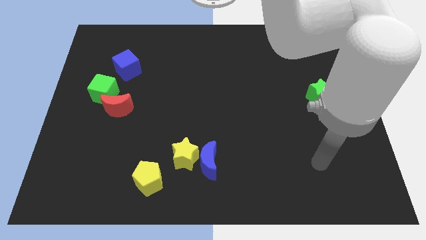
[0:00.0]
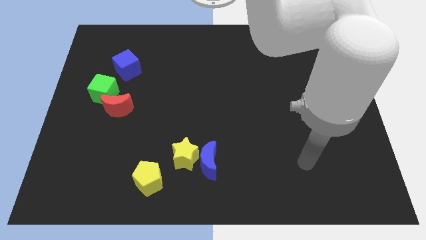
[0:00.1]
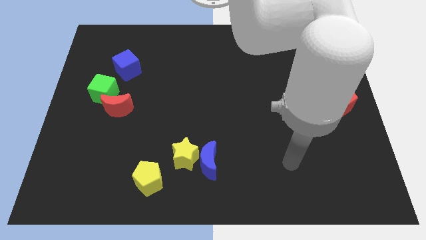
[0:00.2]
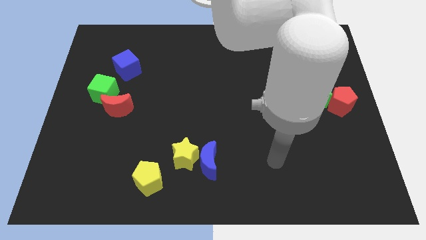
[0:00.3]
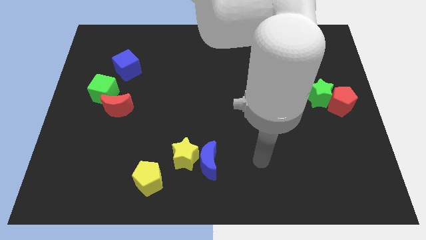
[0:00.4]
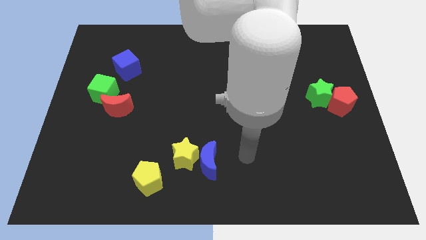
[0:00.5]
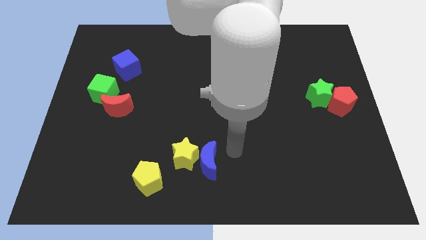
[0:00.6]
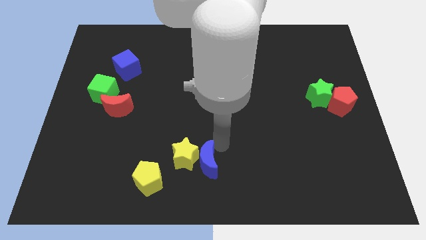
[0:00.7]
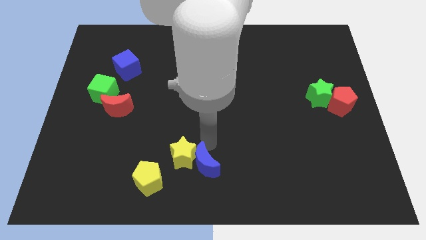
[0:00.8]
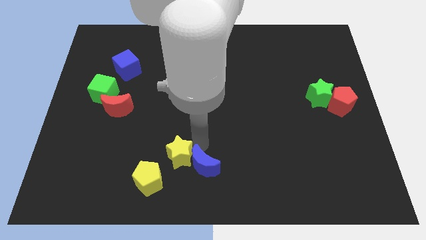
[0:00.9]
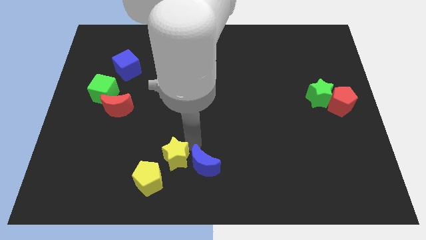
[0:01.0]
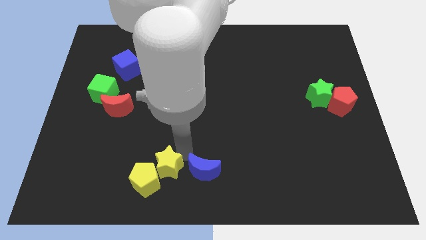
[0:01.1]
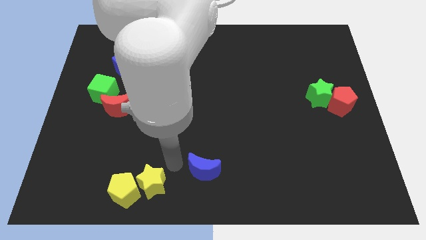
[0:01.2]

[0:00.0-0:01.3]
move the blue moon away from the yellow star

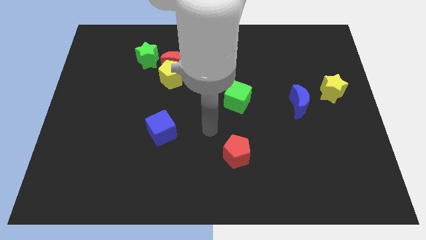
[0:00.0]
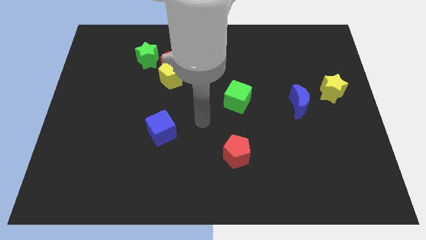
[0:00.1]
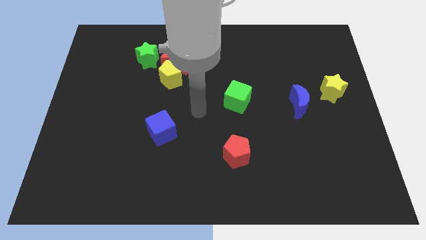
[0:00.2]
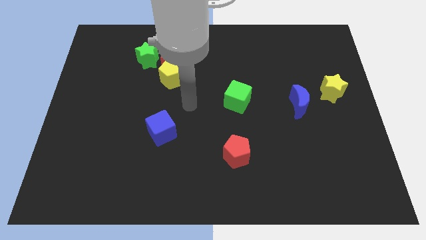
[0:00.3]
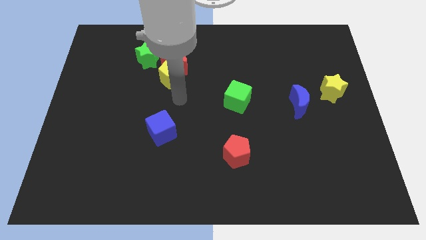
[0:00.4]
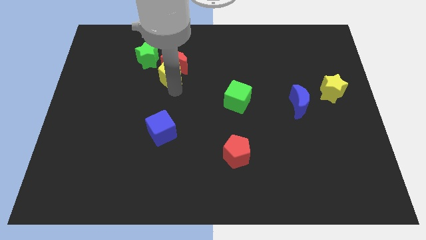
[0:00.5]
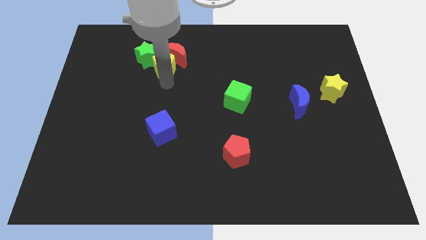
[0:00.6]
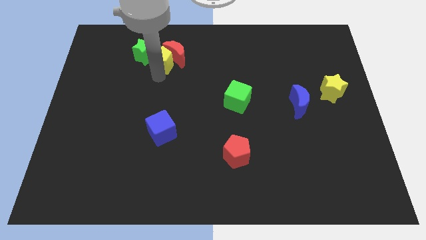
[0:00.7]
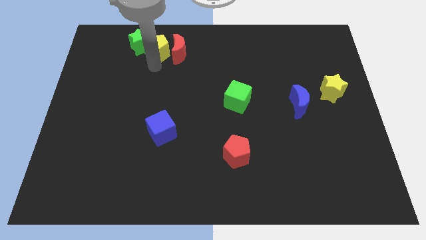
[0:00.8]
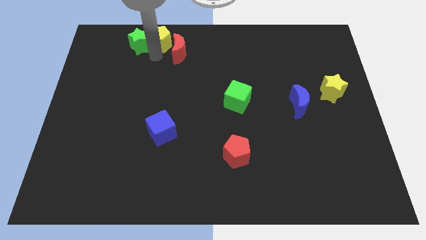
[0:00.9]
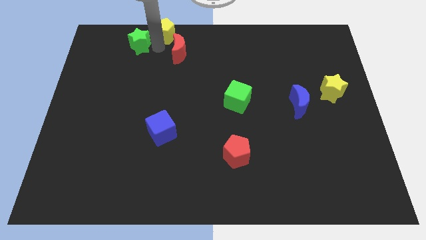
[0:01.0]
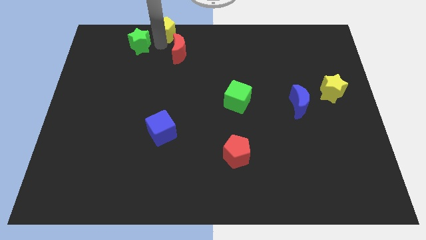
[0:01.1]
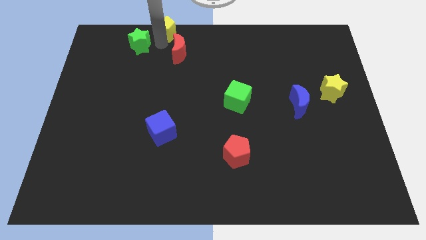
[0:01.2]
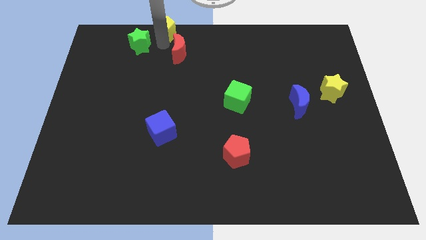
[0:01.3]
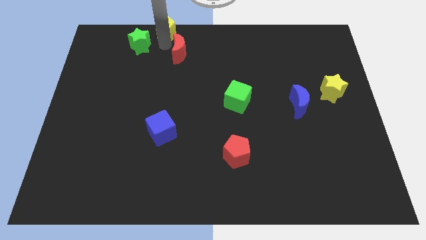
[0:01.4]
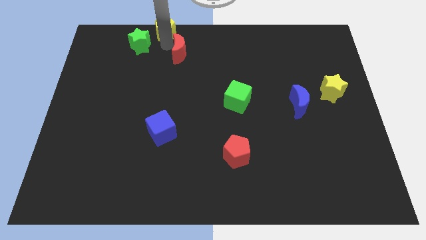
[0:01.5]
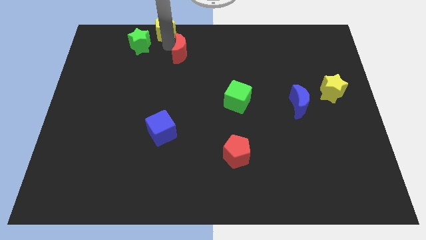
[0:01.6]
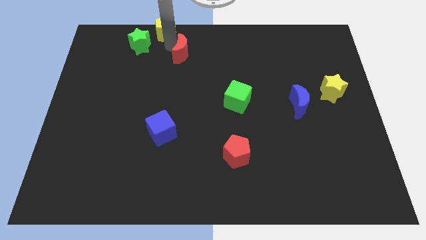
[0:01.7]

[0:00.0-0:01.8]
separate the red moon from the yellow pentagon and green star

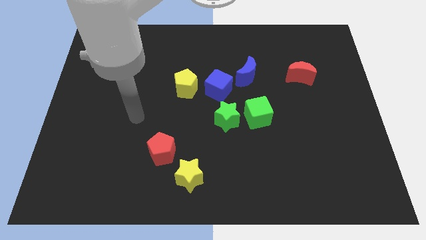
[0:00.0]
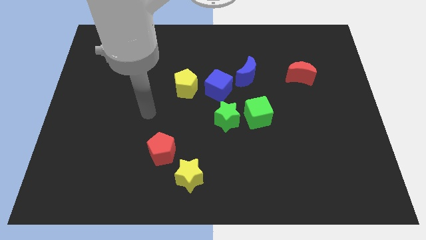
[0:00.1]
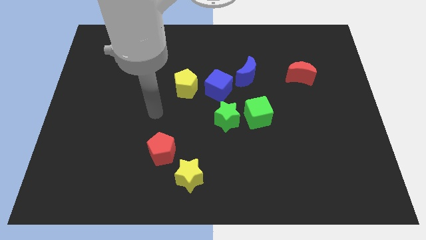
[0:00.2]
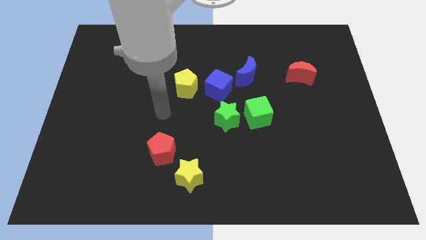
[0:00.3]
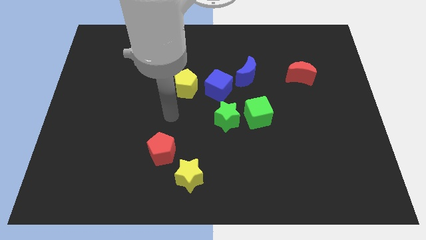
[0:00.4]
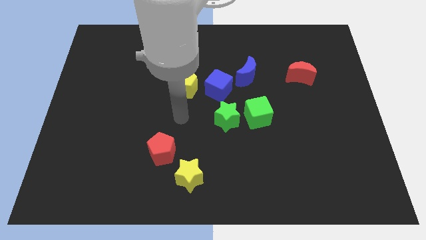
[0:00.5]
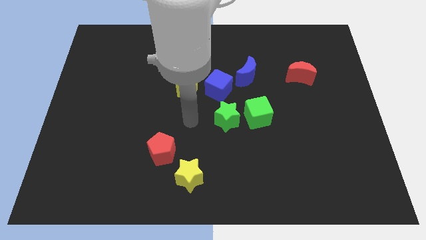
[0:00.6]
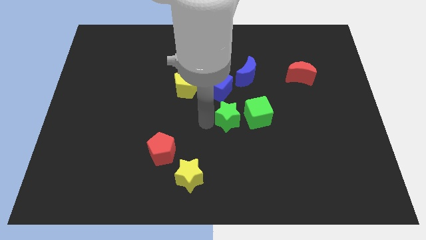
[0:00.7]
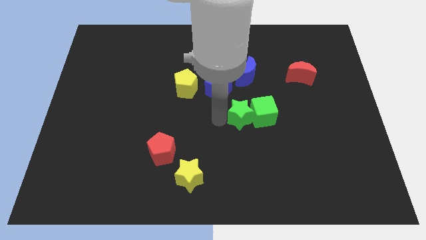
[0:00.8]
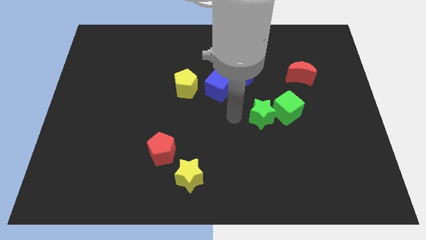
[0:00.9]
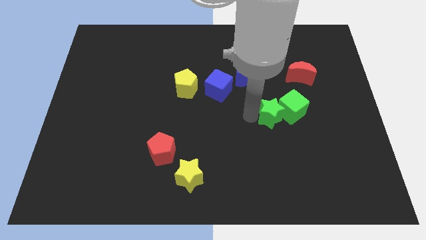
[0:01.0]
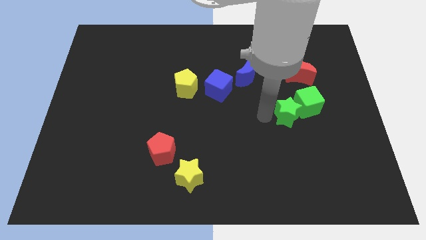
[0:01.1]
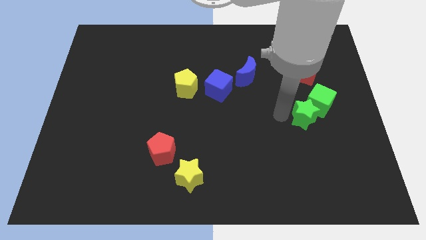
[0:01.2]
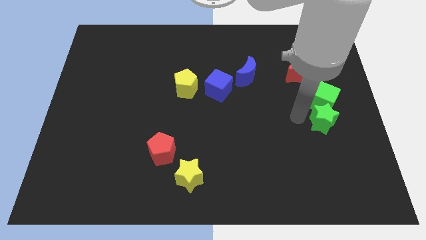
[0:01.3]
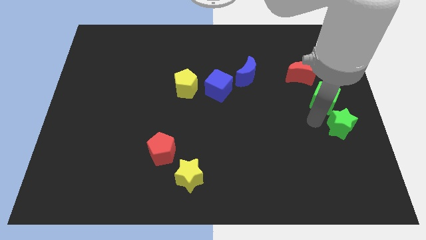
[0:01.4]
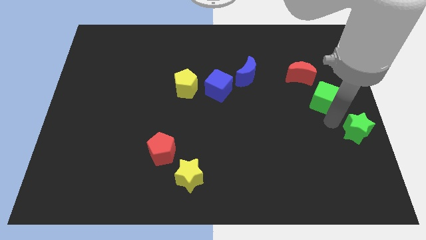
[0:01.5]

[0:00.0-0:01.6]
separate the green cube from the green star

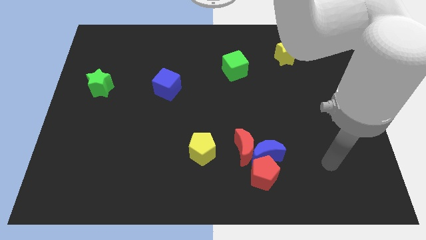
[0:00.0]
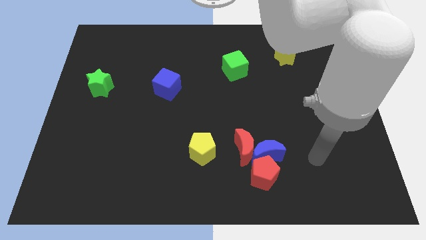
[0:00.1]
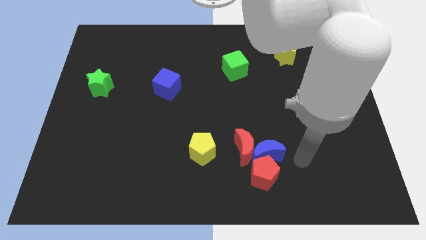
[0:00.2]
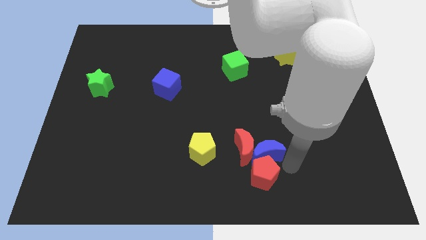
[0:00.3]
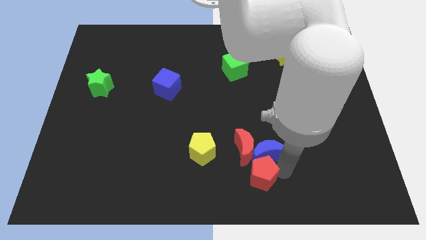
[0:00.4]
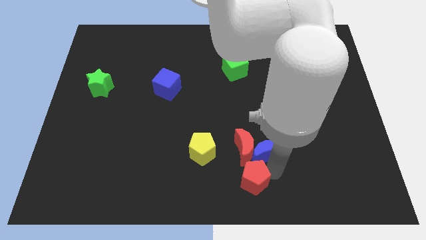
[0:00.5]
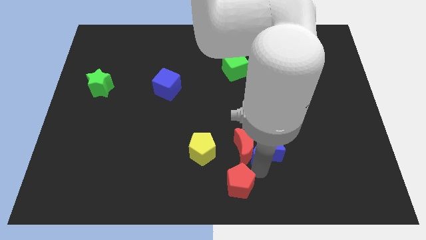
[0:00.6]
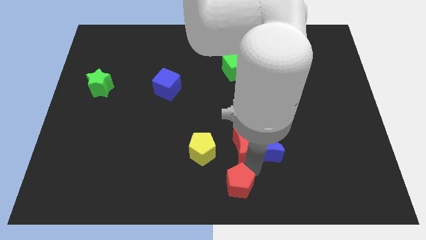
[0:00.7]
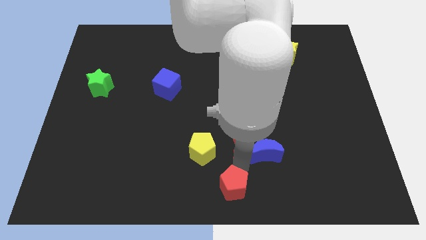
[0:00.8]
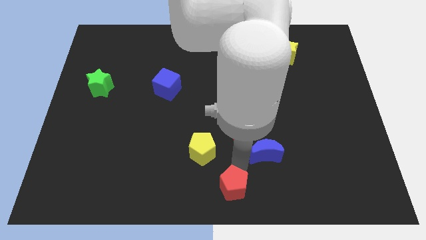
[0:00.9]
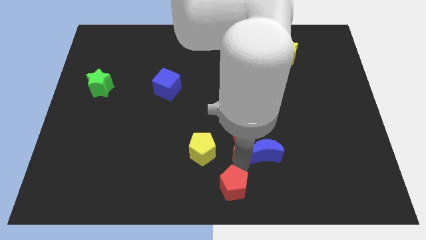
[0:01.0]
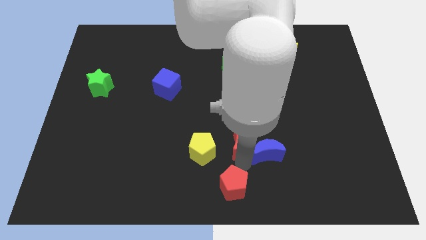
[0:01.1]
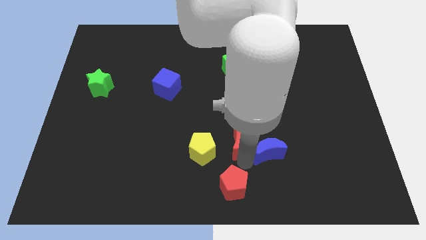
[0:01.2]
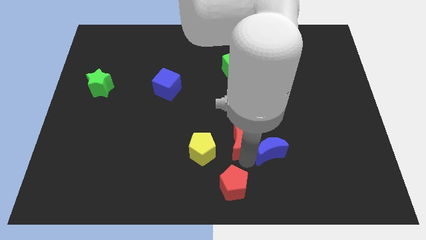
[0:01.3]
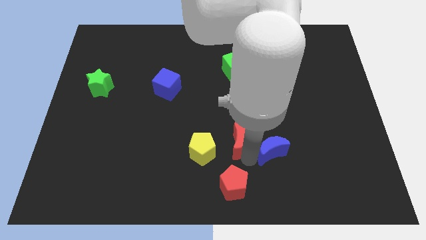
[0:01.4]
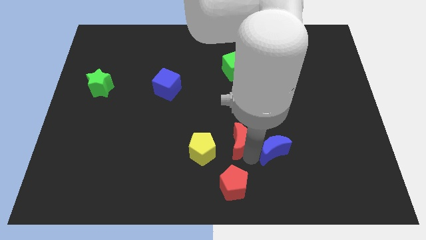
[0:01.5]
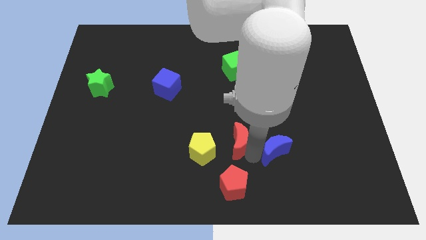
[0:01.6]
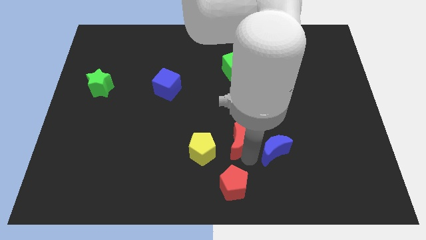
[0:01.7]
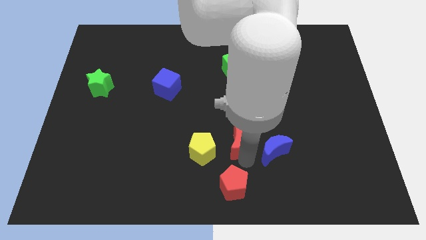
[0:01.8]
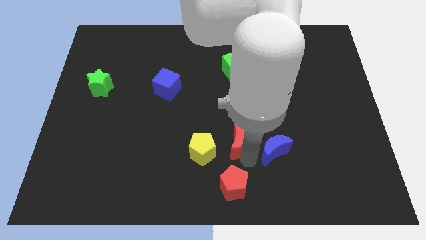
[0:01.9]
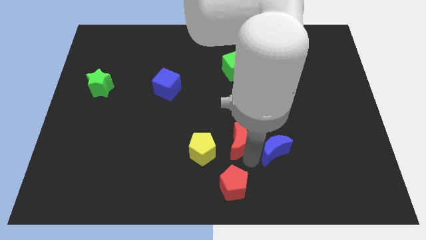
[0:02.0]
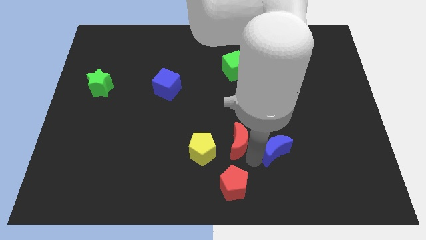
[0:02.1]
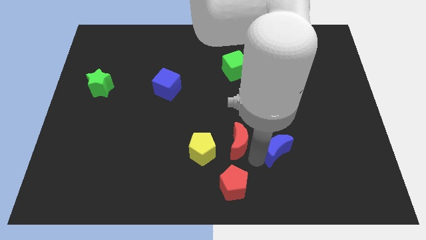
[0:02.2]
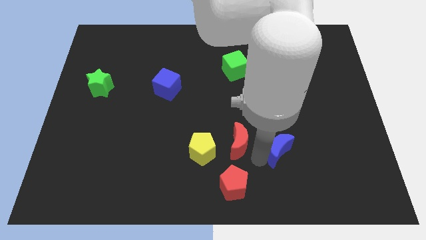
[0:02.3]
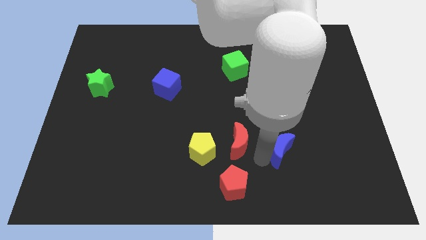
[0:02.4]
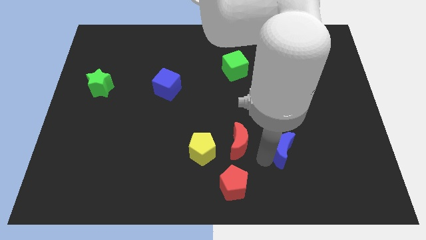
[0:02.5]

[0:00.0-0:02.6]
move the blue moon away from the red moon and red pentagon

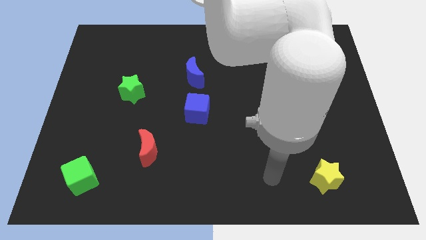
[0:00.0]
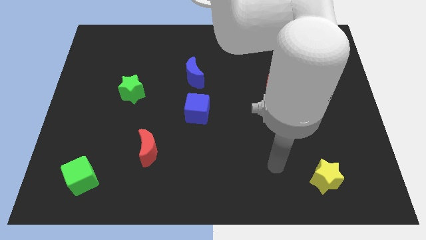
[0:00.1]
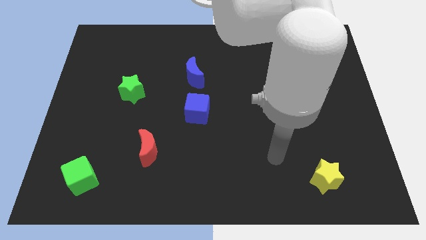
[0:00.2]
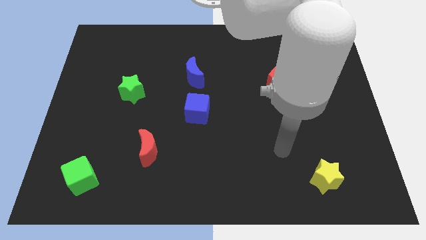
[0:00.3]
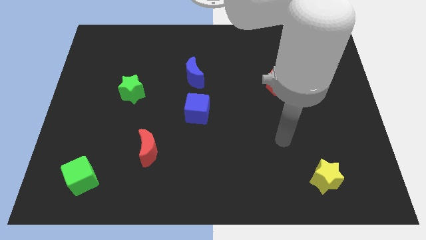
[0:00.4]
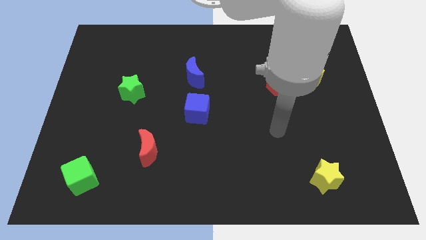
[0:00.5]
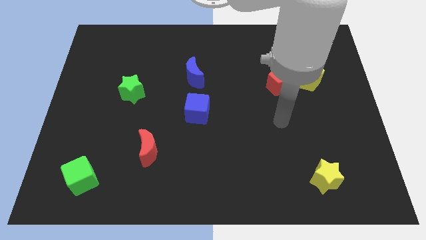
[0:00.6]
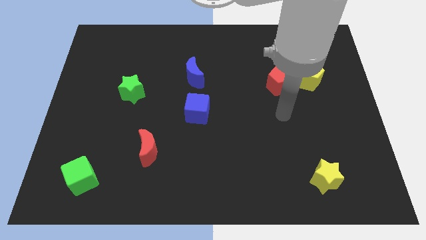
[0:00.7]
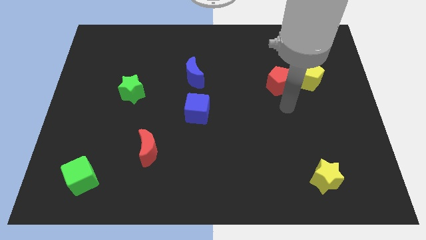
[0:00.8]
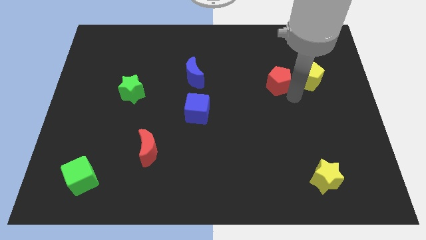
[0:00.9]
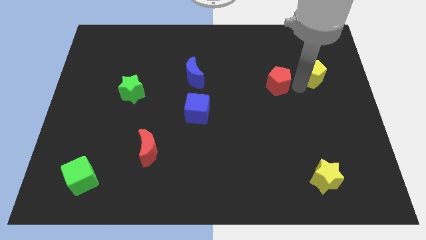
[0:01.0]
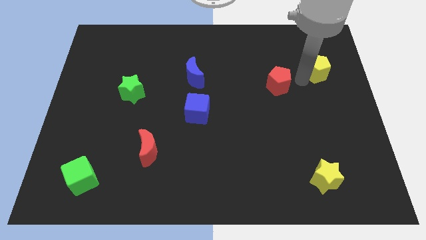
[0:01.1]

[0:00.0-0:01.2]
separate the red pentagon from the yellow pentagon

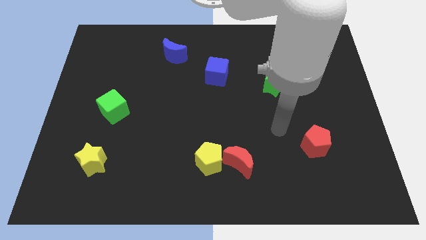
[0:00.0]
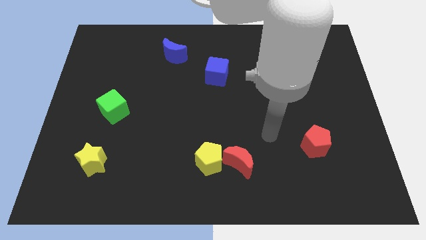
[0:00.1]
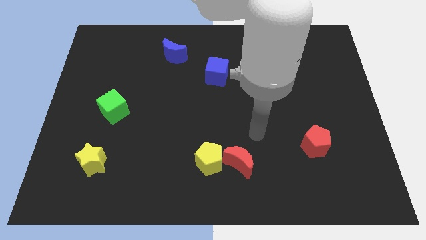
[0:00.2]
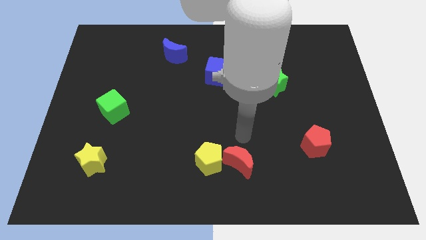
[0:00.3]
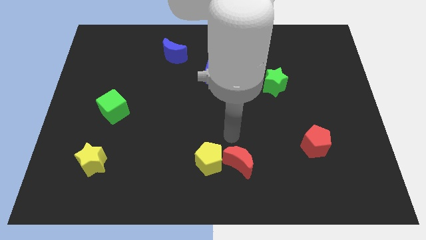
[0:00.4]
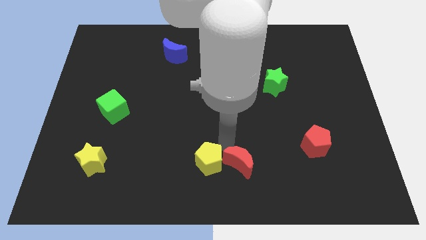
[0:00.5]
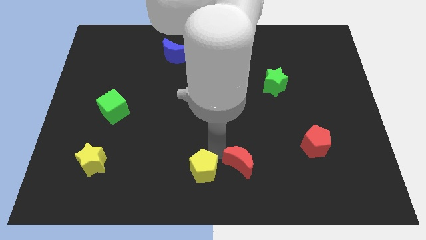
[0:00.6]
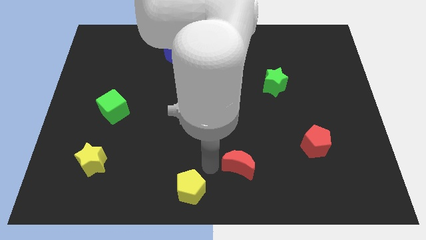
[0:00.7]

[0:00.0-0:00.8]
pull the red moon apart from the yellow pentagon
